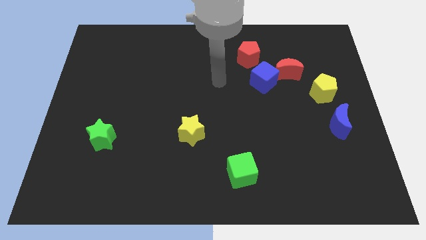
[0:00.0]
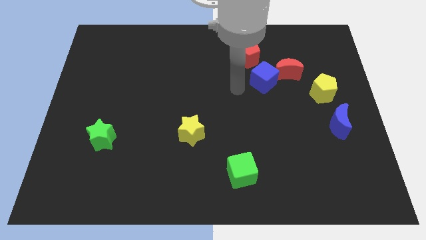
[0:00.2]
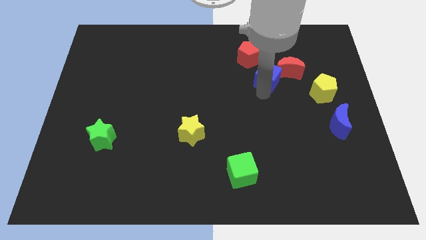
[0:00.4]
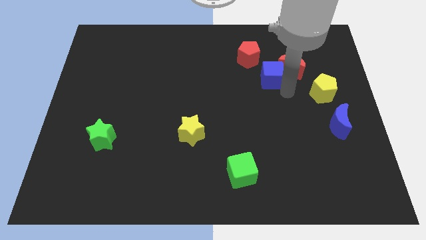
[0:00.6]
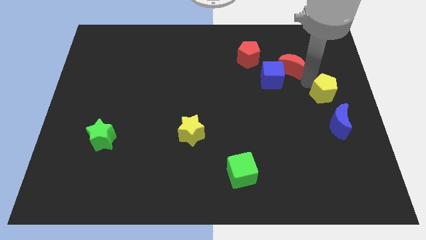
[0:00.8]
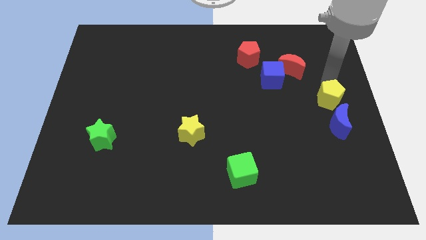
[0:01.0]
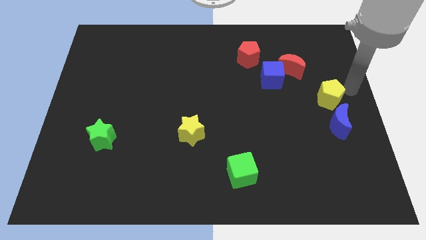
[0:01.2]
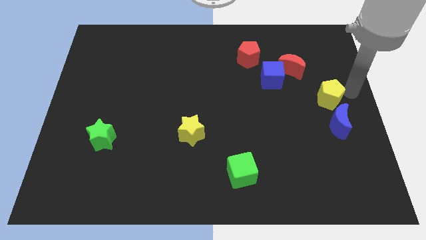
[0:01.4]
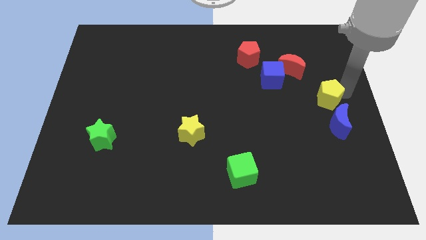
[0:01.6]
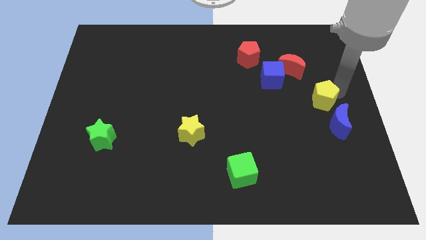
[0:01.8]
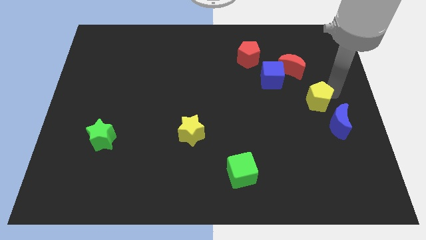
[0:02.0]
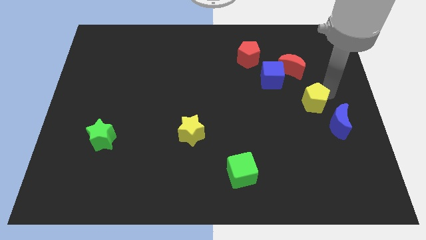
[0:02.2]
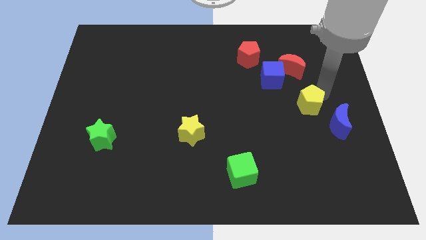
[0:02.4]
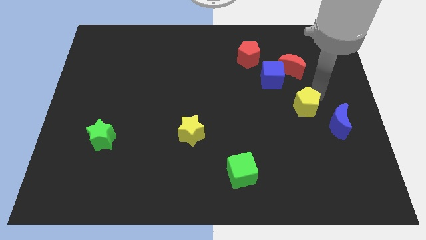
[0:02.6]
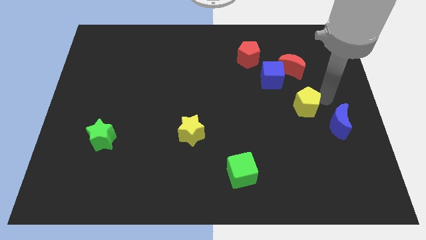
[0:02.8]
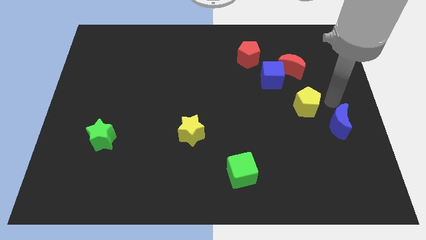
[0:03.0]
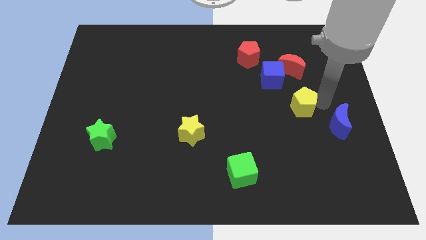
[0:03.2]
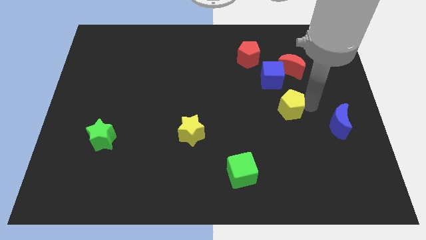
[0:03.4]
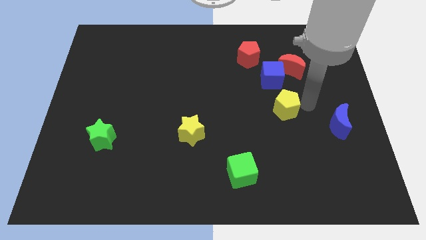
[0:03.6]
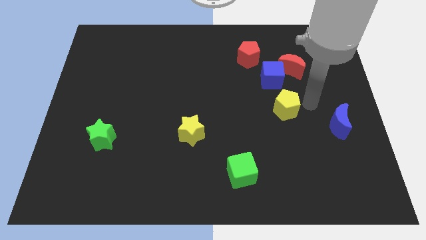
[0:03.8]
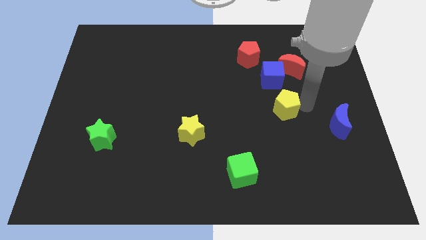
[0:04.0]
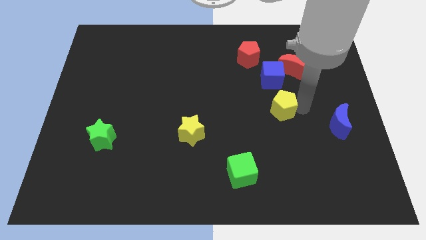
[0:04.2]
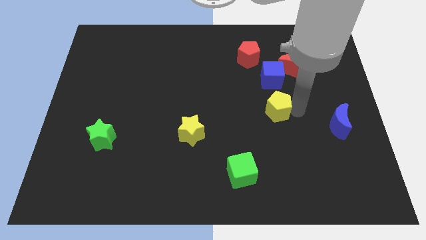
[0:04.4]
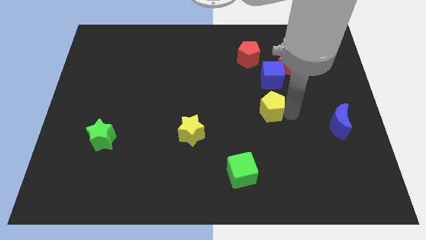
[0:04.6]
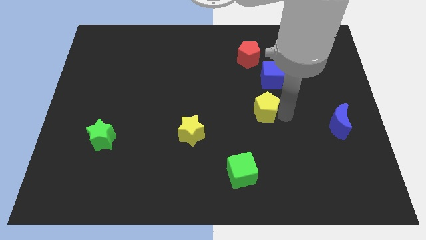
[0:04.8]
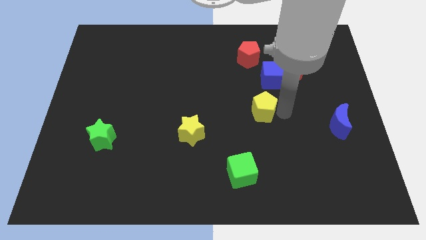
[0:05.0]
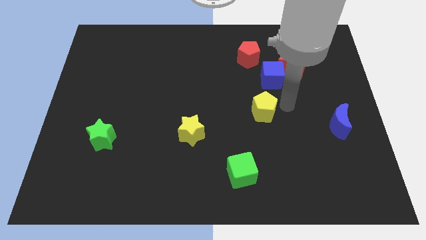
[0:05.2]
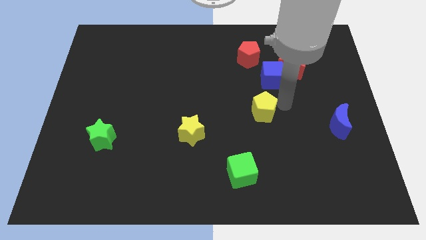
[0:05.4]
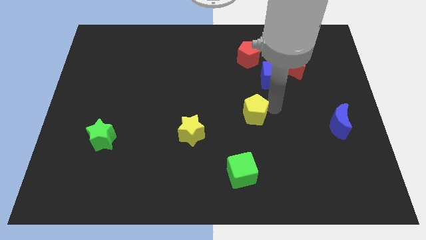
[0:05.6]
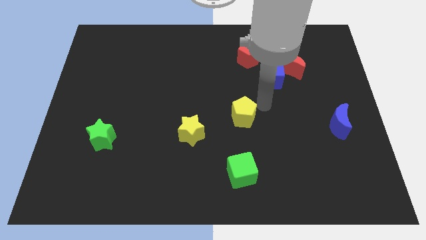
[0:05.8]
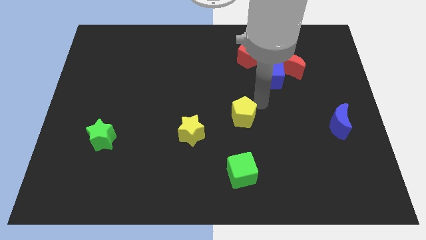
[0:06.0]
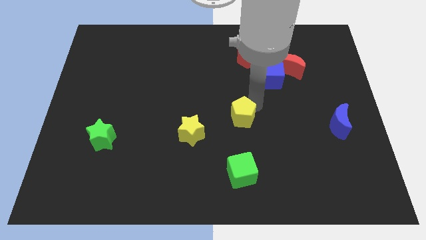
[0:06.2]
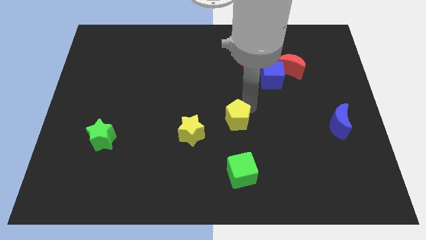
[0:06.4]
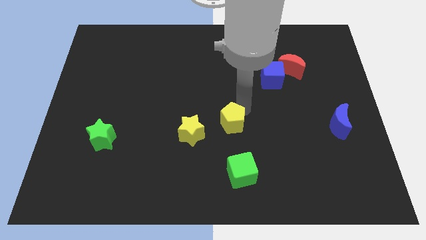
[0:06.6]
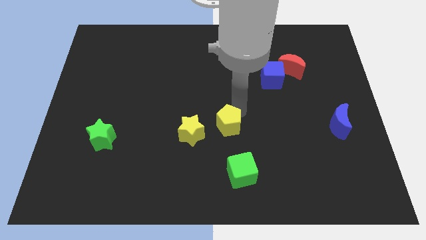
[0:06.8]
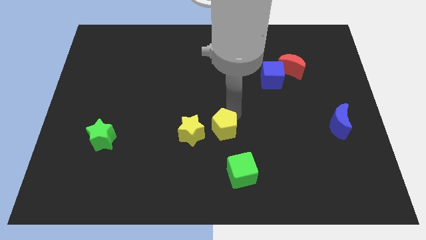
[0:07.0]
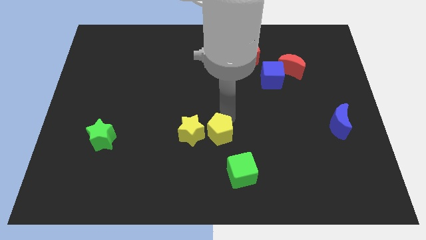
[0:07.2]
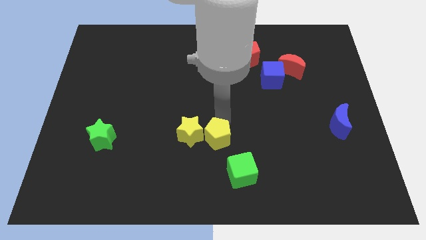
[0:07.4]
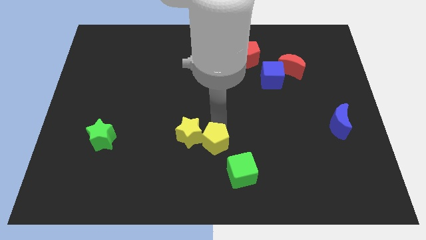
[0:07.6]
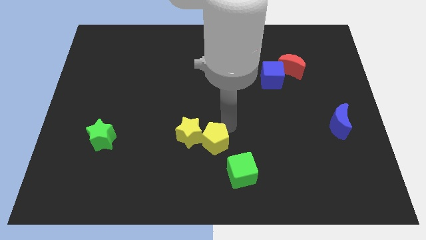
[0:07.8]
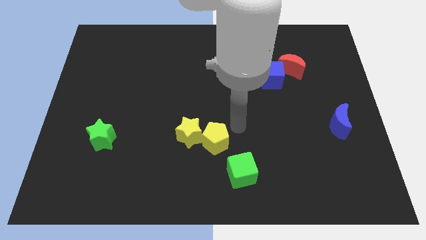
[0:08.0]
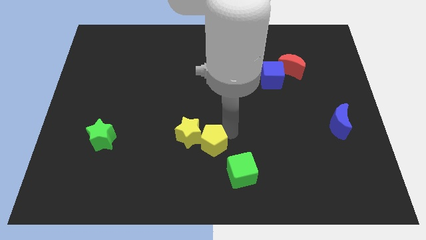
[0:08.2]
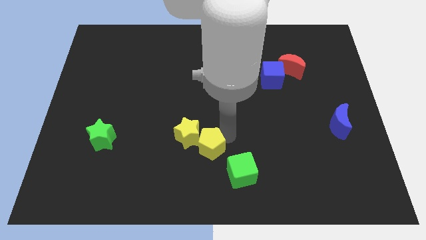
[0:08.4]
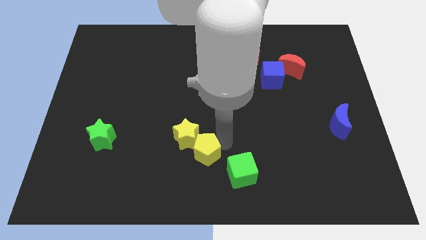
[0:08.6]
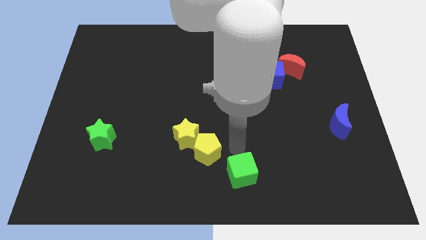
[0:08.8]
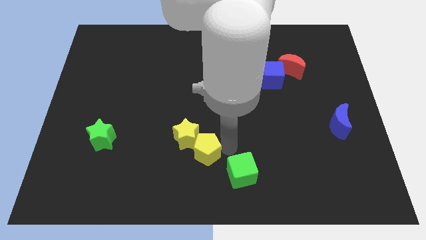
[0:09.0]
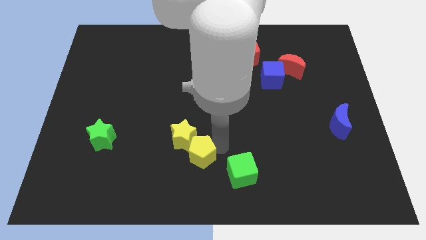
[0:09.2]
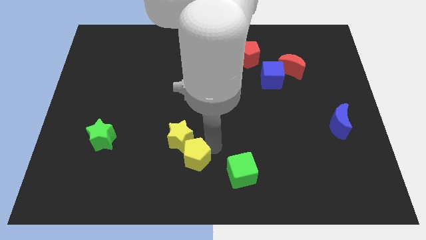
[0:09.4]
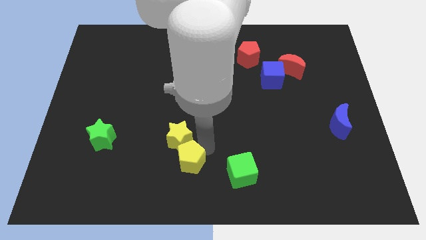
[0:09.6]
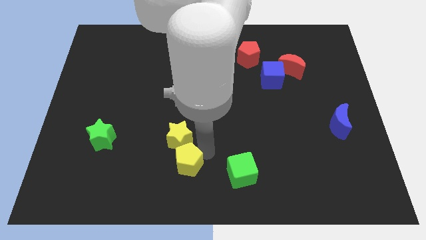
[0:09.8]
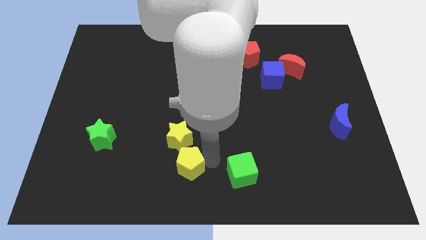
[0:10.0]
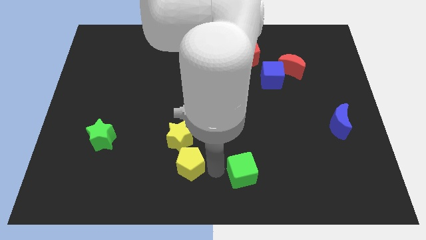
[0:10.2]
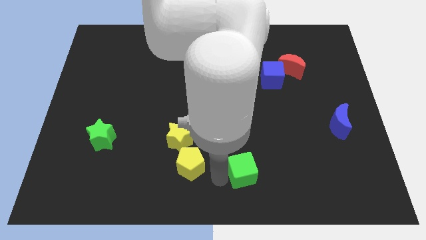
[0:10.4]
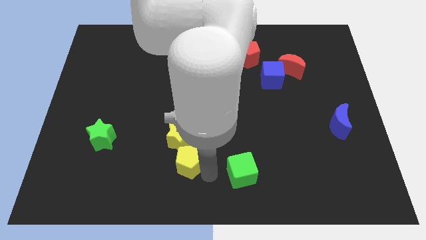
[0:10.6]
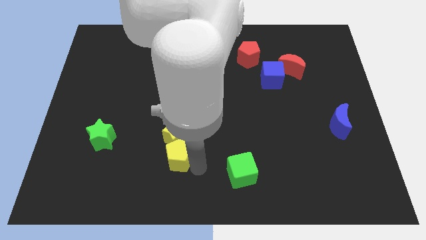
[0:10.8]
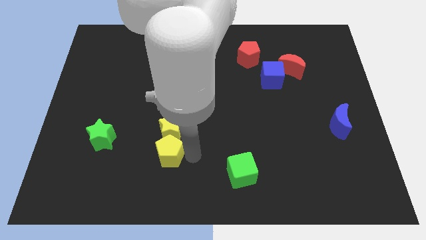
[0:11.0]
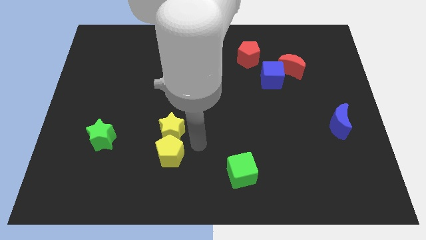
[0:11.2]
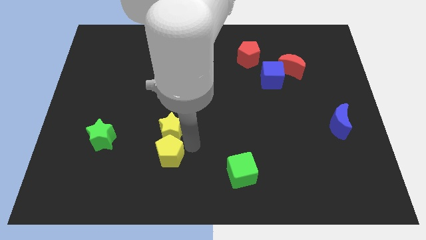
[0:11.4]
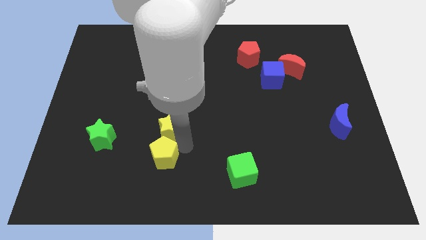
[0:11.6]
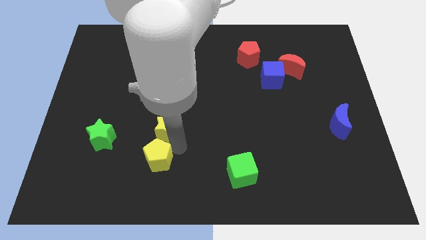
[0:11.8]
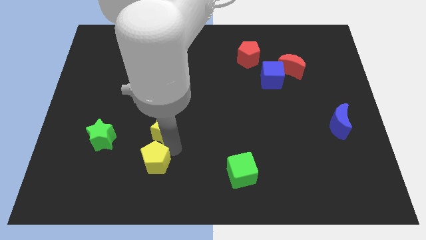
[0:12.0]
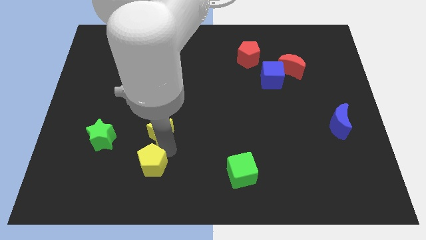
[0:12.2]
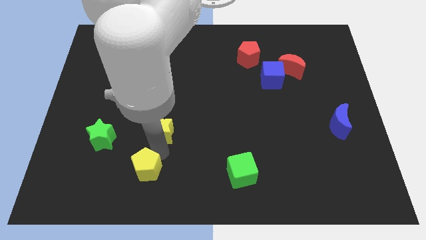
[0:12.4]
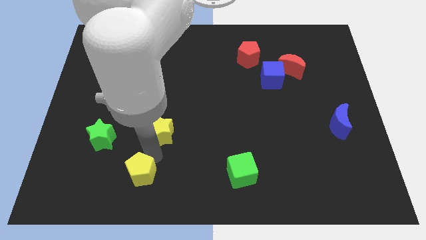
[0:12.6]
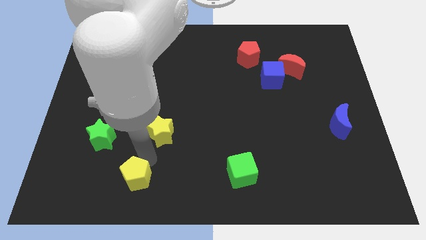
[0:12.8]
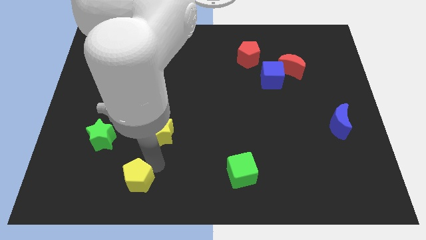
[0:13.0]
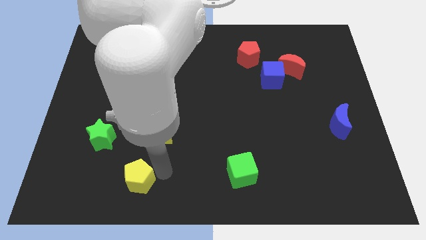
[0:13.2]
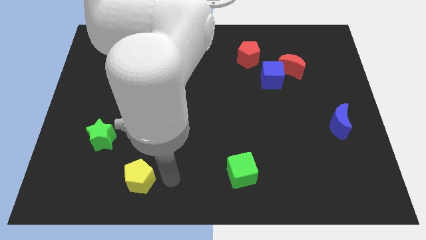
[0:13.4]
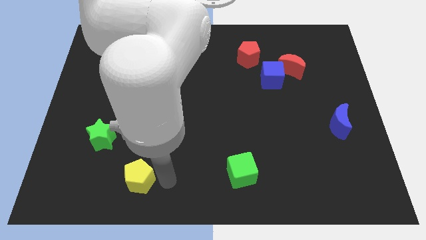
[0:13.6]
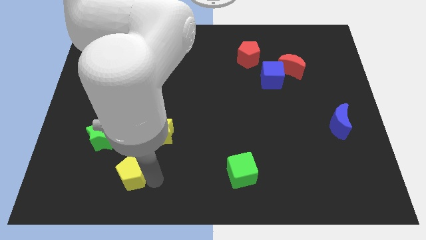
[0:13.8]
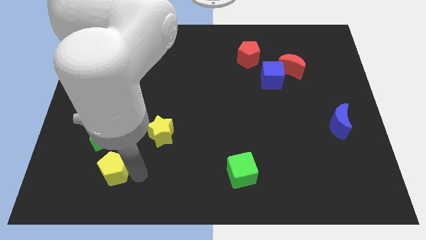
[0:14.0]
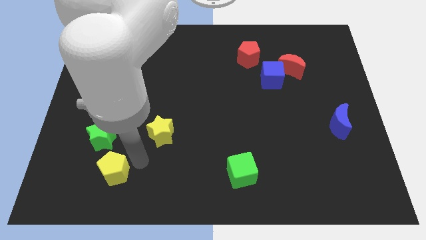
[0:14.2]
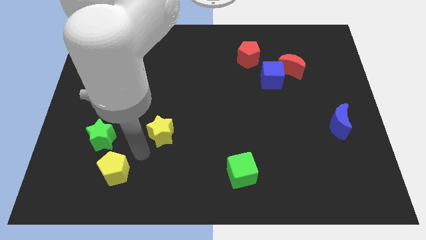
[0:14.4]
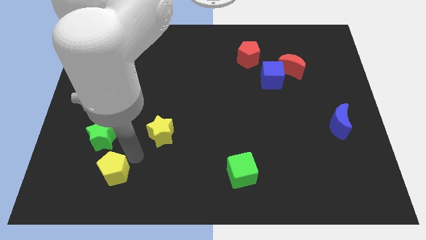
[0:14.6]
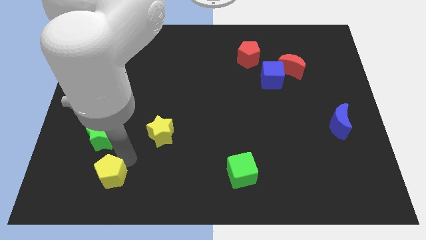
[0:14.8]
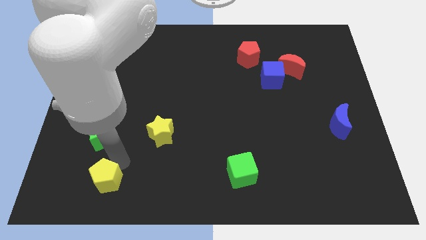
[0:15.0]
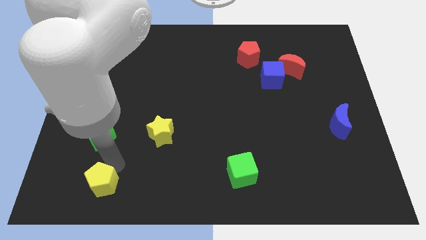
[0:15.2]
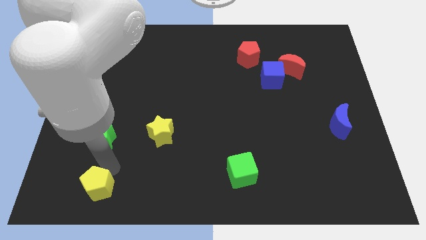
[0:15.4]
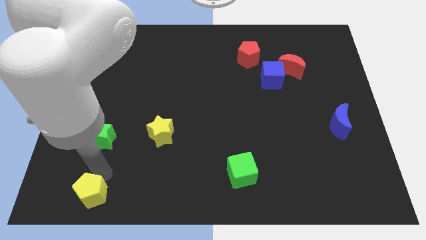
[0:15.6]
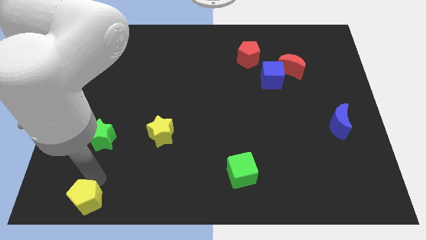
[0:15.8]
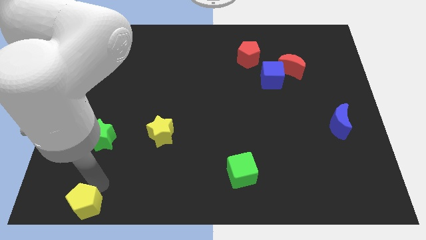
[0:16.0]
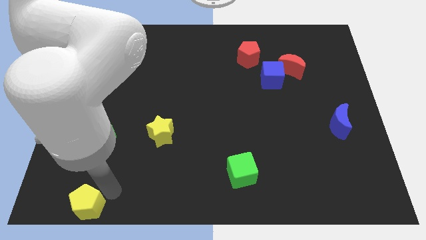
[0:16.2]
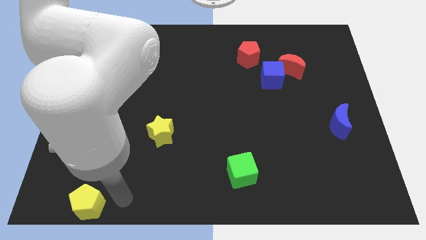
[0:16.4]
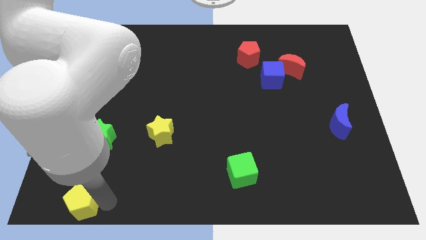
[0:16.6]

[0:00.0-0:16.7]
slide the yellow pentagon to the bottom left of the board
